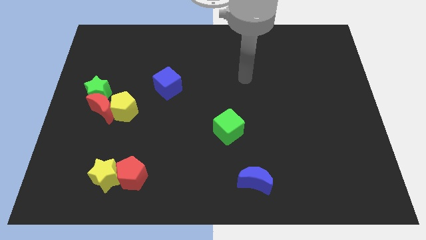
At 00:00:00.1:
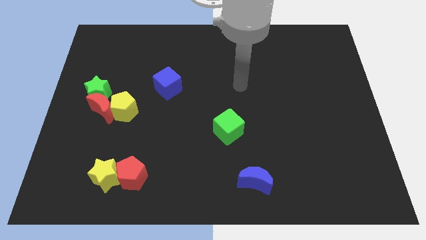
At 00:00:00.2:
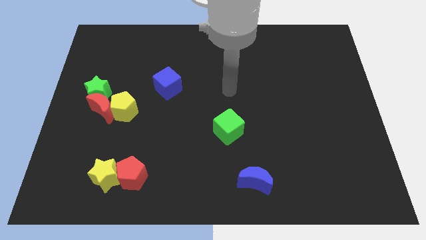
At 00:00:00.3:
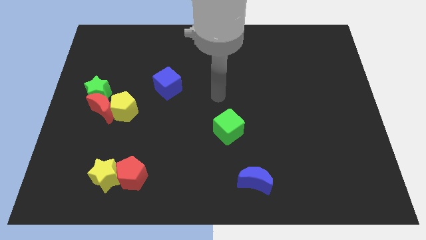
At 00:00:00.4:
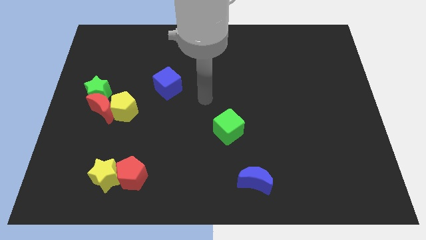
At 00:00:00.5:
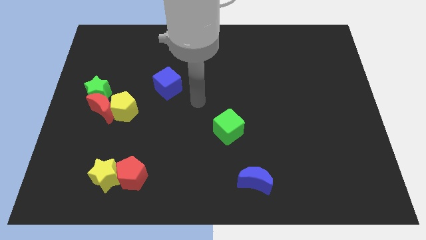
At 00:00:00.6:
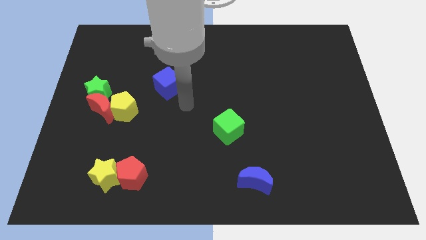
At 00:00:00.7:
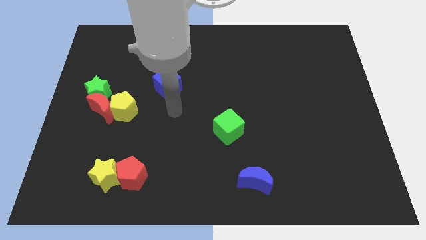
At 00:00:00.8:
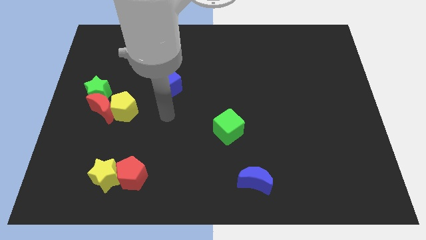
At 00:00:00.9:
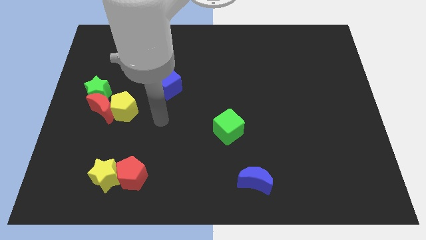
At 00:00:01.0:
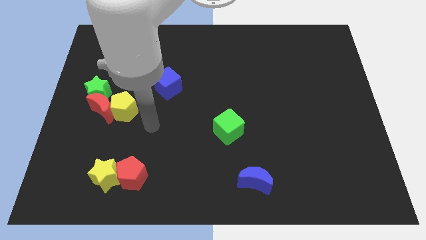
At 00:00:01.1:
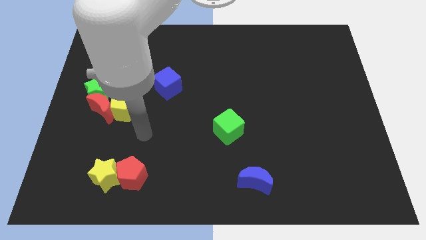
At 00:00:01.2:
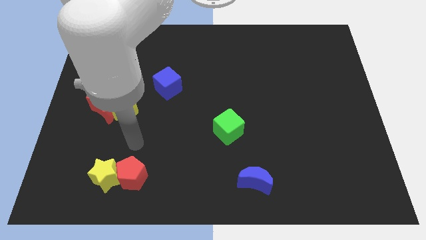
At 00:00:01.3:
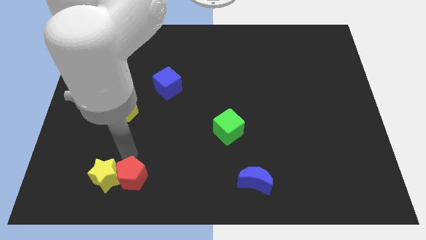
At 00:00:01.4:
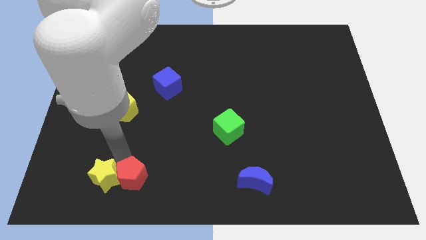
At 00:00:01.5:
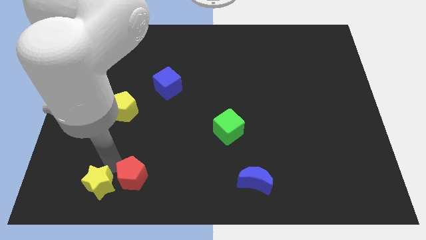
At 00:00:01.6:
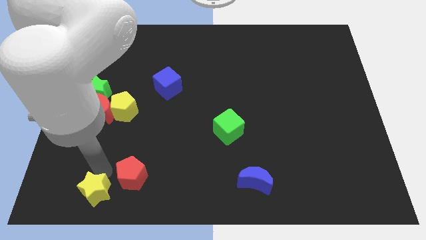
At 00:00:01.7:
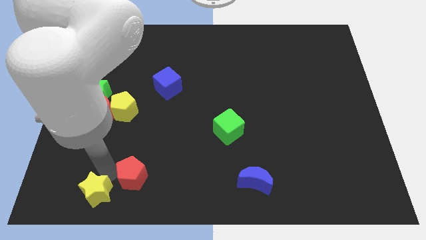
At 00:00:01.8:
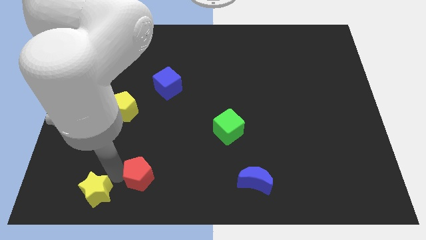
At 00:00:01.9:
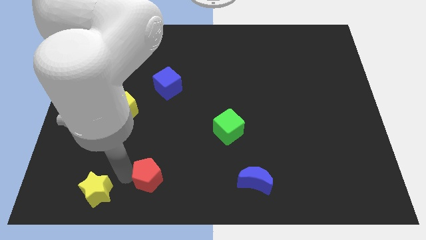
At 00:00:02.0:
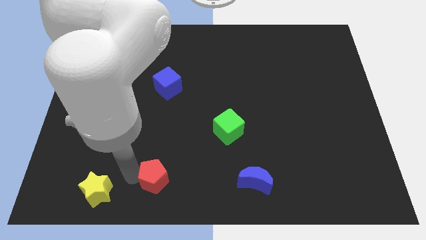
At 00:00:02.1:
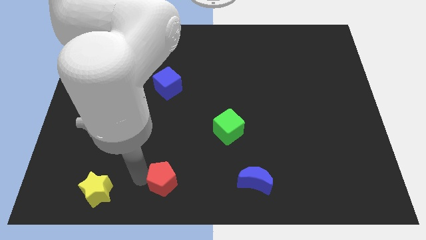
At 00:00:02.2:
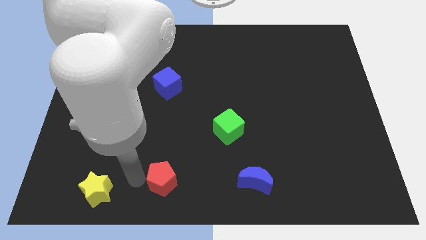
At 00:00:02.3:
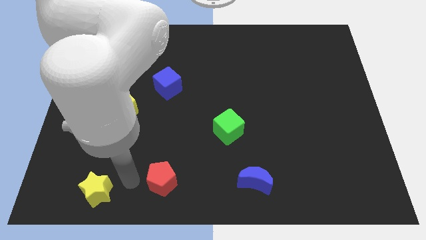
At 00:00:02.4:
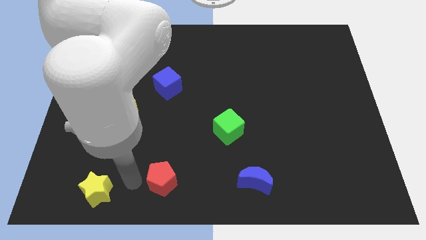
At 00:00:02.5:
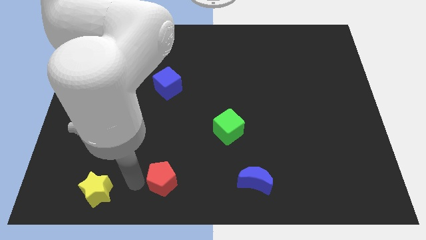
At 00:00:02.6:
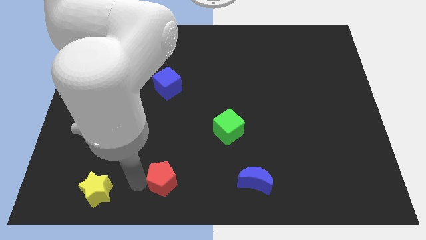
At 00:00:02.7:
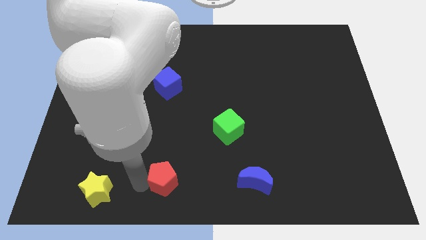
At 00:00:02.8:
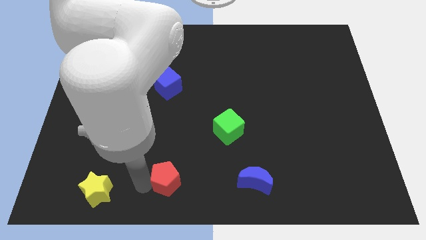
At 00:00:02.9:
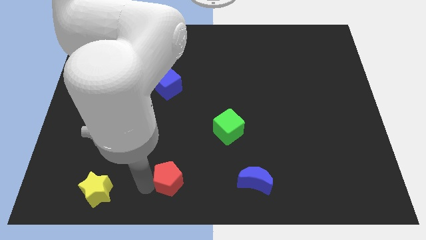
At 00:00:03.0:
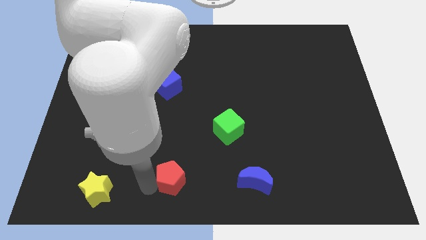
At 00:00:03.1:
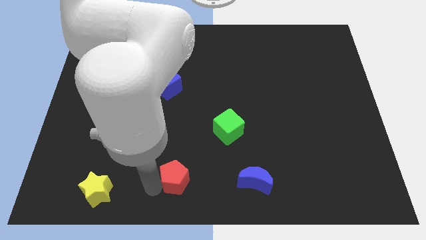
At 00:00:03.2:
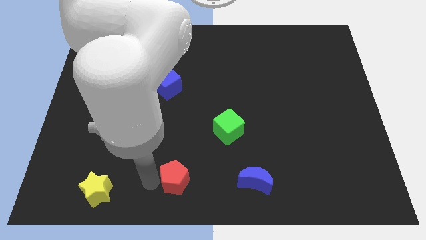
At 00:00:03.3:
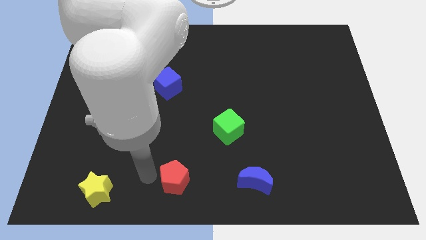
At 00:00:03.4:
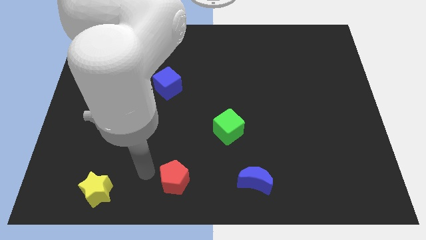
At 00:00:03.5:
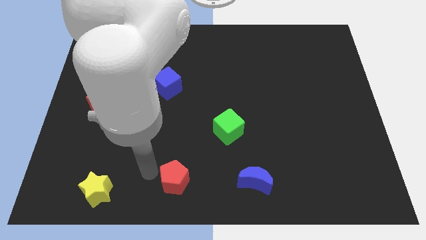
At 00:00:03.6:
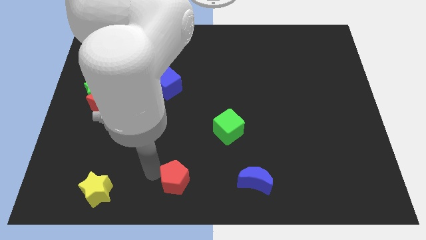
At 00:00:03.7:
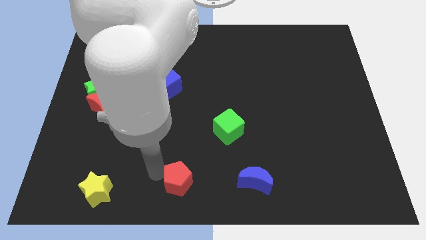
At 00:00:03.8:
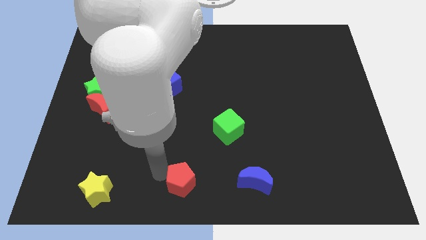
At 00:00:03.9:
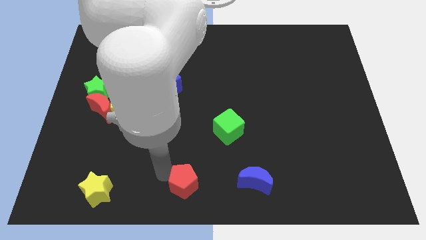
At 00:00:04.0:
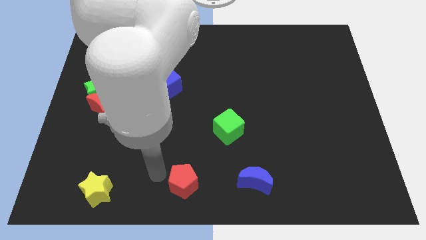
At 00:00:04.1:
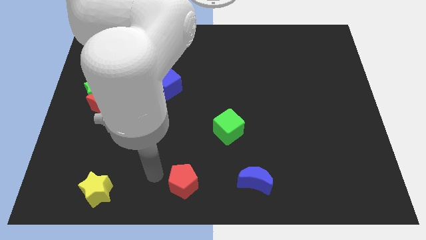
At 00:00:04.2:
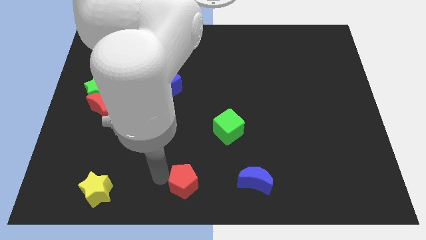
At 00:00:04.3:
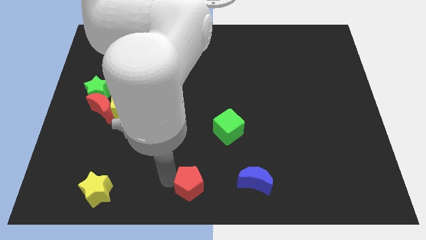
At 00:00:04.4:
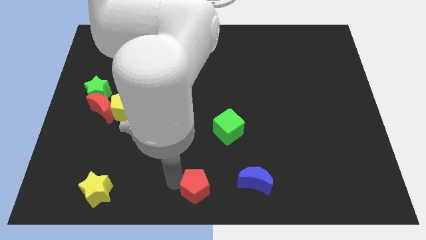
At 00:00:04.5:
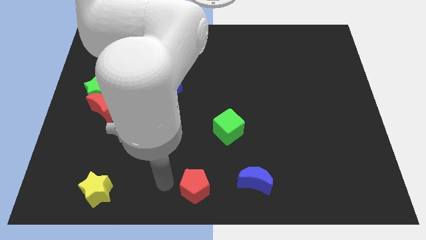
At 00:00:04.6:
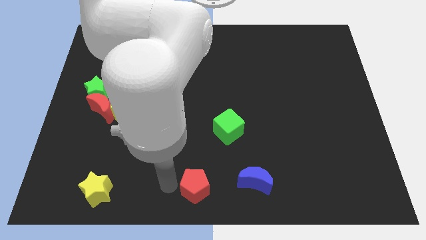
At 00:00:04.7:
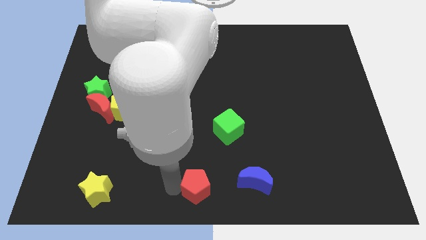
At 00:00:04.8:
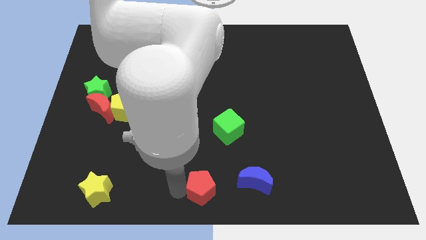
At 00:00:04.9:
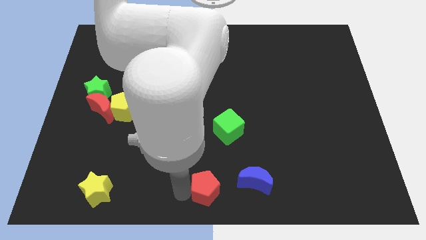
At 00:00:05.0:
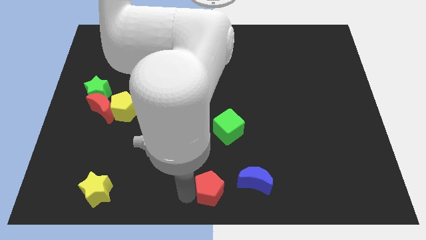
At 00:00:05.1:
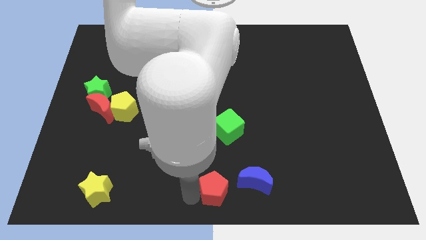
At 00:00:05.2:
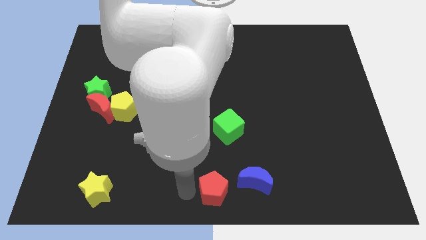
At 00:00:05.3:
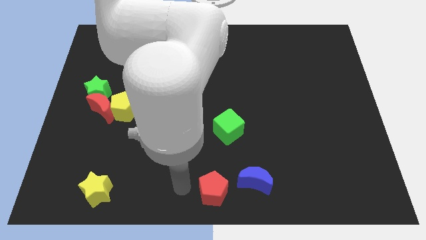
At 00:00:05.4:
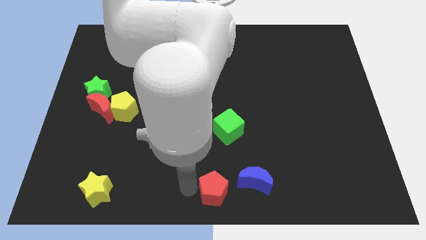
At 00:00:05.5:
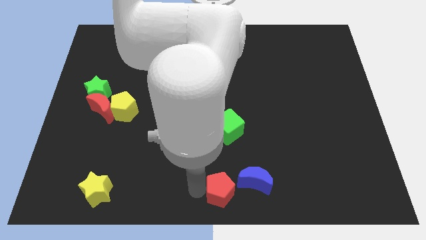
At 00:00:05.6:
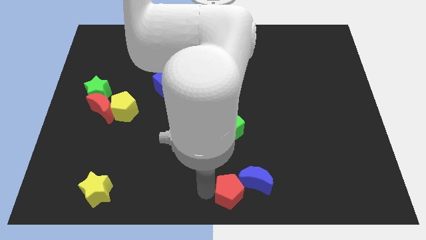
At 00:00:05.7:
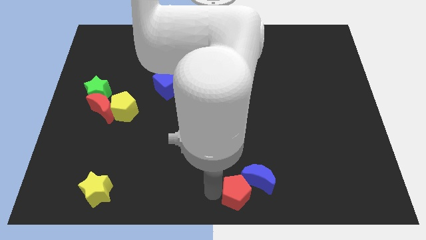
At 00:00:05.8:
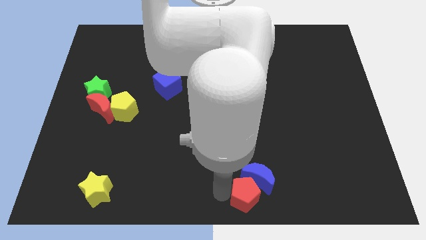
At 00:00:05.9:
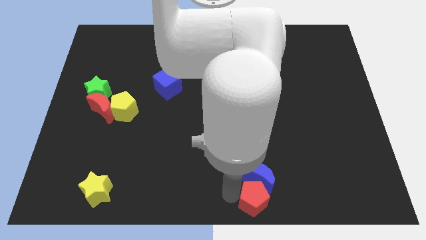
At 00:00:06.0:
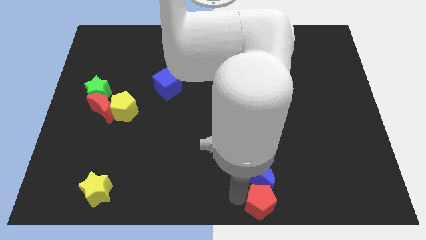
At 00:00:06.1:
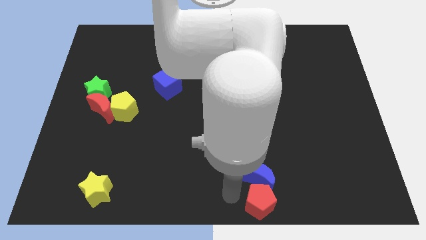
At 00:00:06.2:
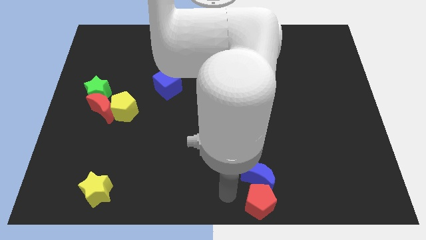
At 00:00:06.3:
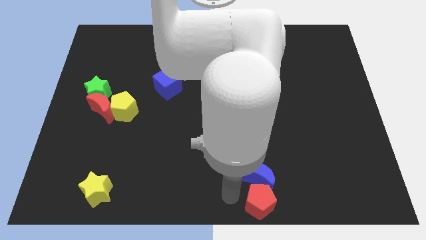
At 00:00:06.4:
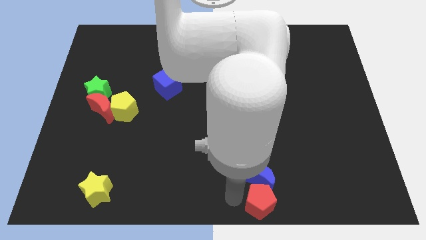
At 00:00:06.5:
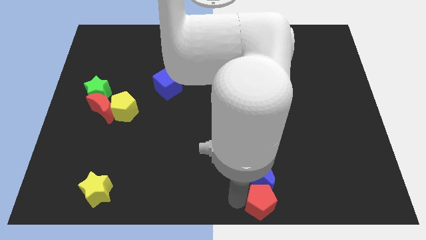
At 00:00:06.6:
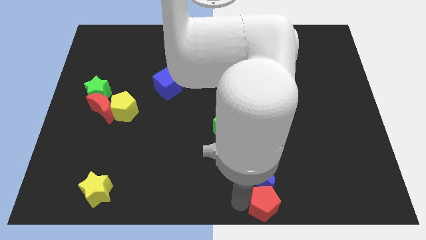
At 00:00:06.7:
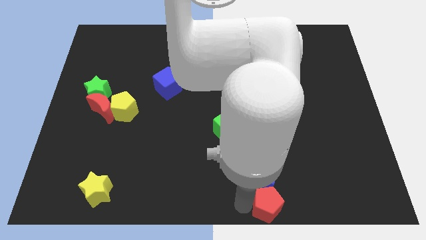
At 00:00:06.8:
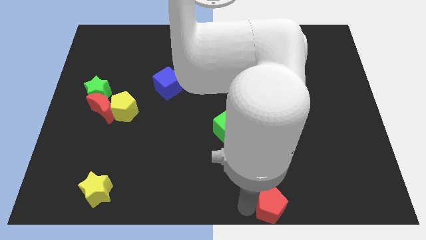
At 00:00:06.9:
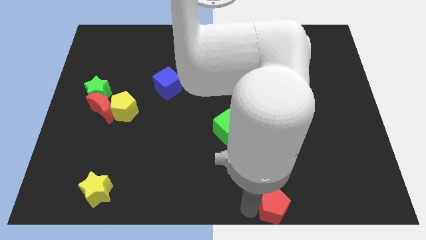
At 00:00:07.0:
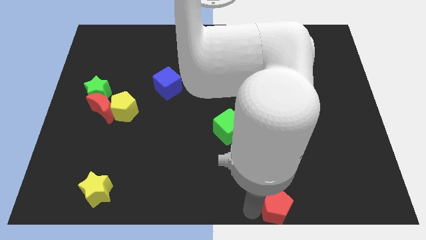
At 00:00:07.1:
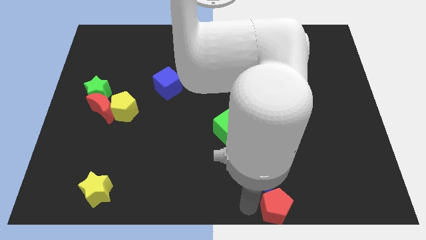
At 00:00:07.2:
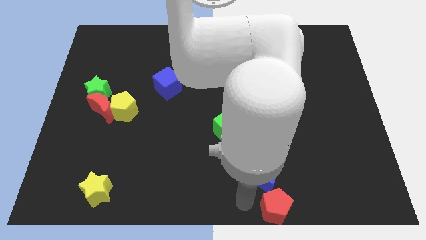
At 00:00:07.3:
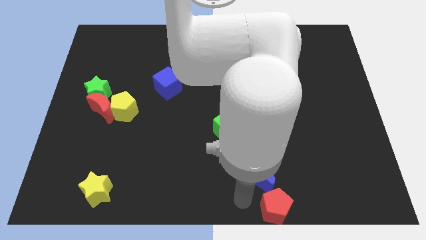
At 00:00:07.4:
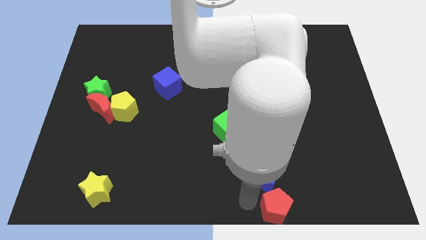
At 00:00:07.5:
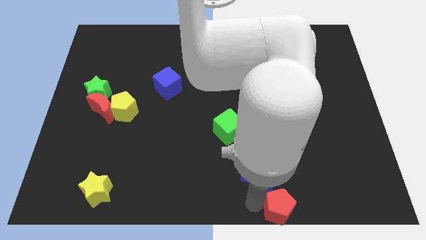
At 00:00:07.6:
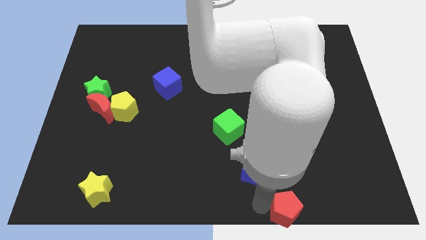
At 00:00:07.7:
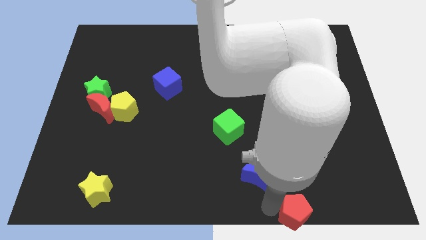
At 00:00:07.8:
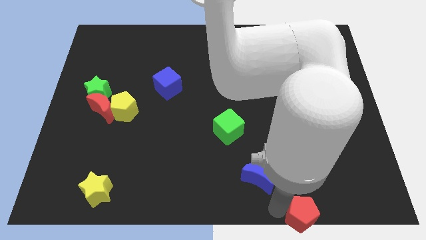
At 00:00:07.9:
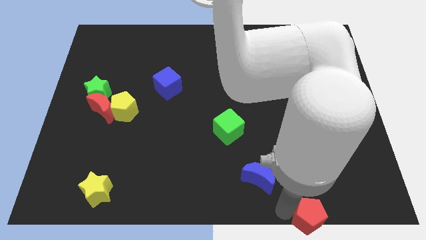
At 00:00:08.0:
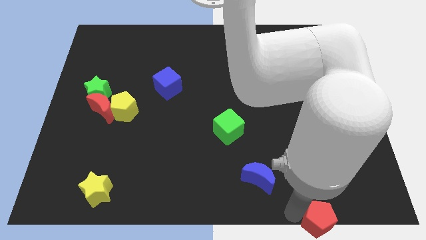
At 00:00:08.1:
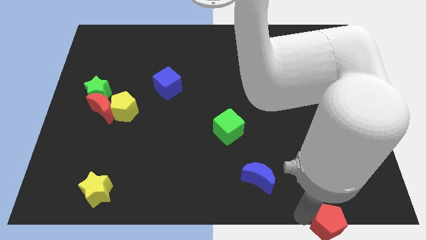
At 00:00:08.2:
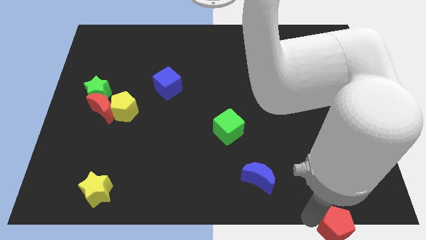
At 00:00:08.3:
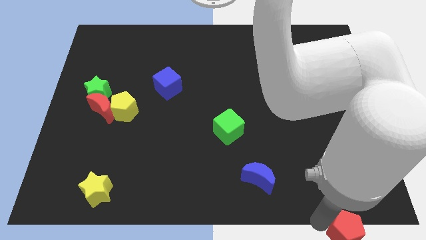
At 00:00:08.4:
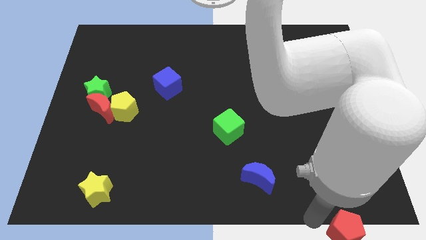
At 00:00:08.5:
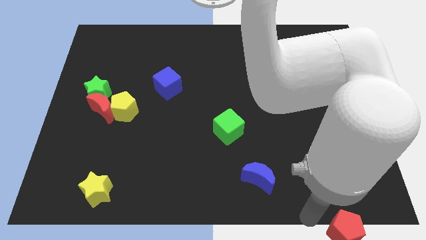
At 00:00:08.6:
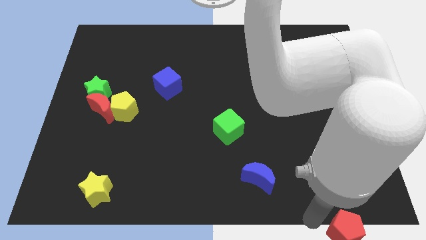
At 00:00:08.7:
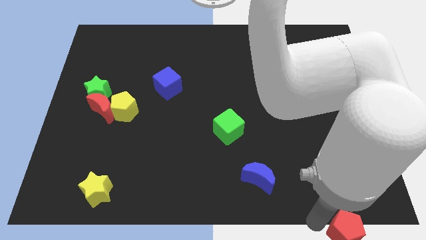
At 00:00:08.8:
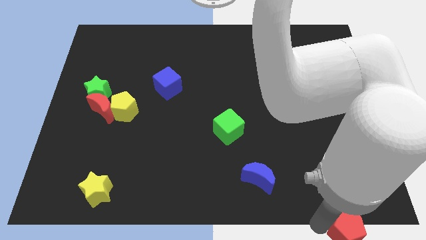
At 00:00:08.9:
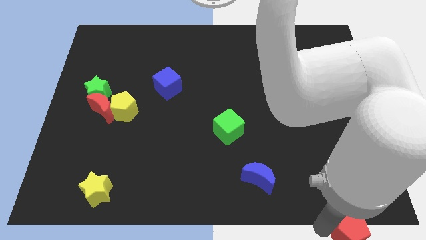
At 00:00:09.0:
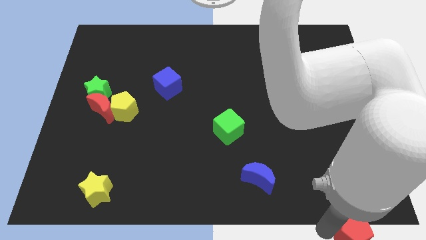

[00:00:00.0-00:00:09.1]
move the red pentagon to the lower right corner
